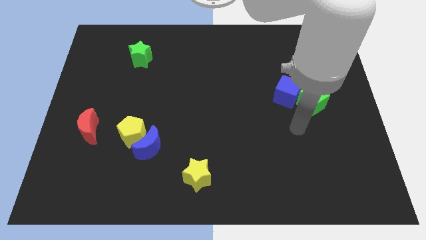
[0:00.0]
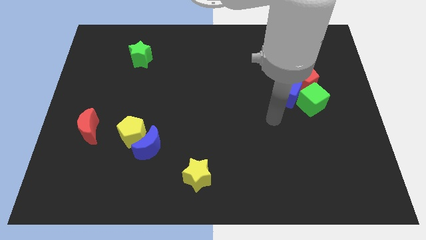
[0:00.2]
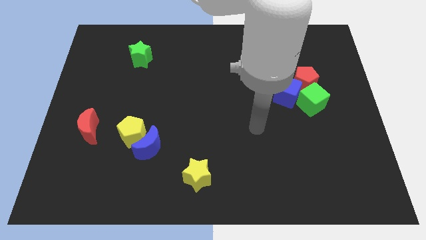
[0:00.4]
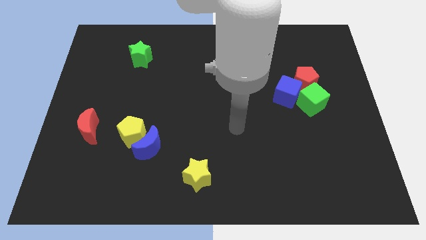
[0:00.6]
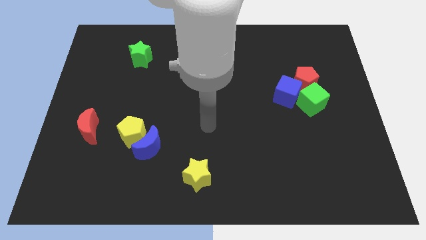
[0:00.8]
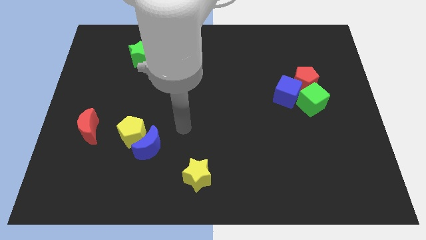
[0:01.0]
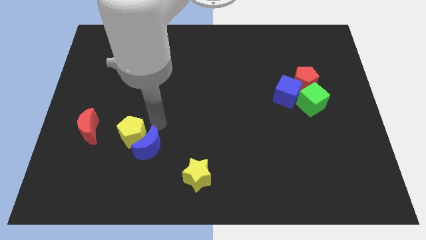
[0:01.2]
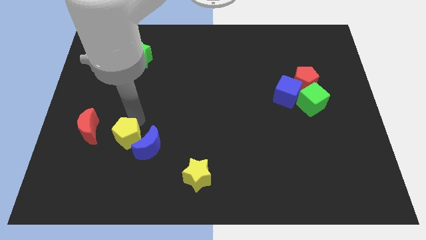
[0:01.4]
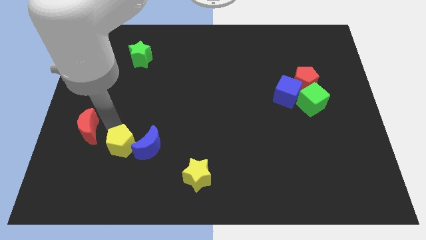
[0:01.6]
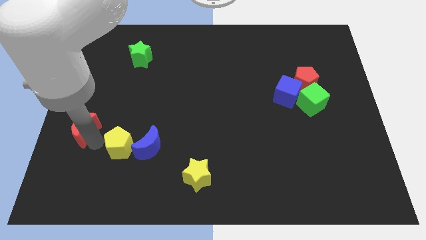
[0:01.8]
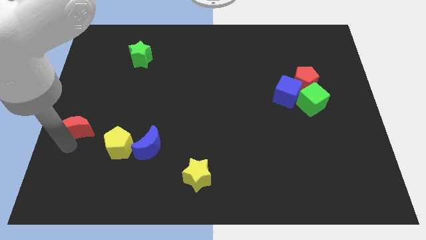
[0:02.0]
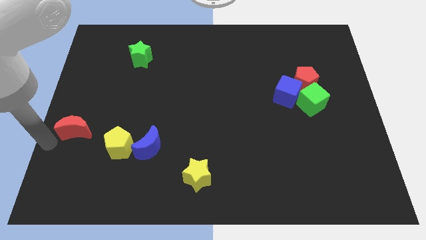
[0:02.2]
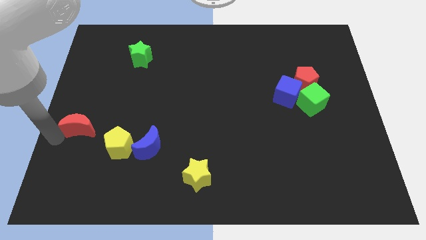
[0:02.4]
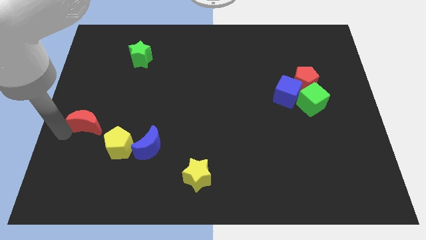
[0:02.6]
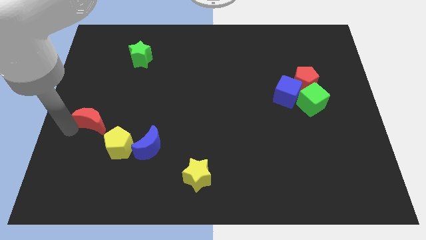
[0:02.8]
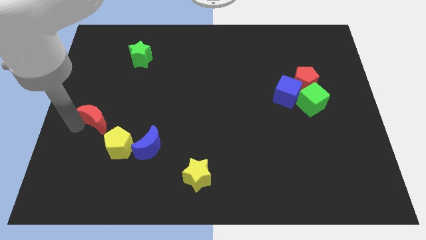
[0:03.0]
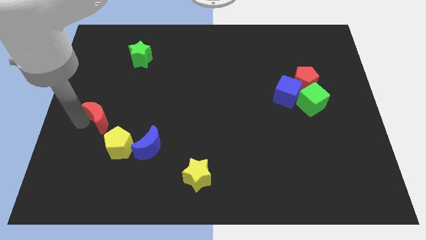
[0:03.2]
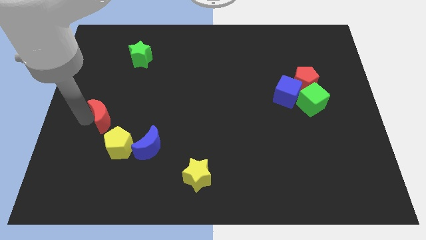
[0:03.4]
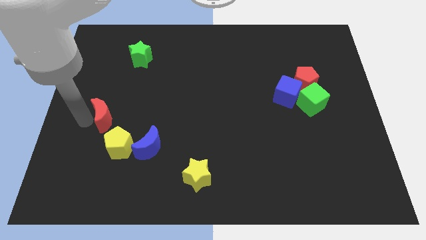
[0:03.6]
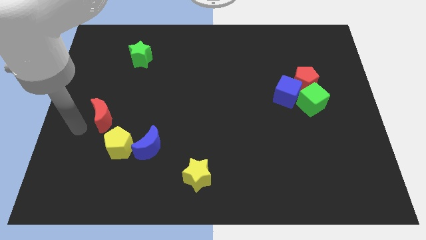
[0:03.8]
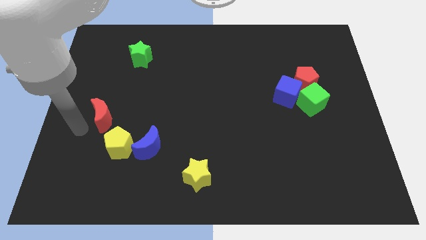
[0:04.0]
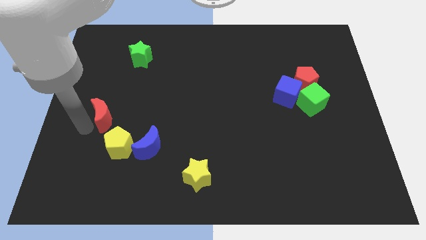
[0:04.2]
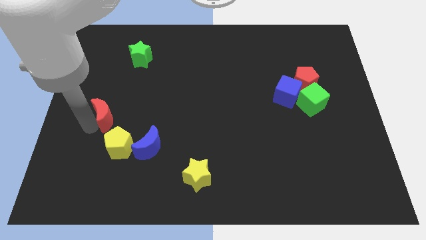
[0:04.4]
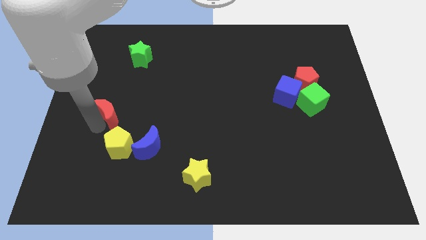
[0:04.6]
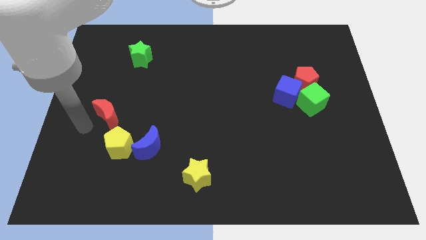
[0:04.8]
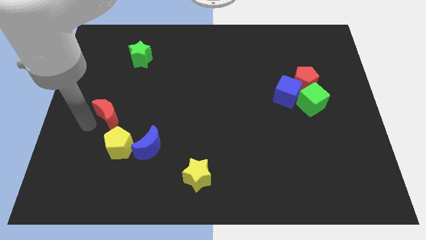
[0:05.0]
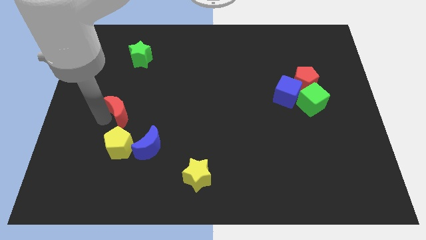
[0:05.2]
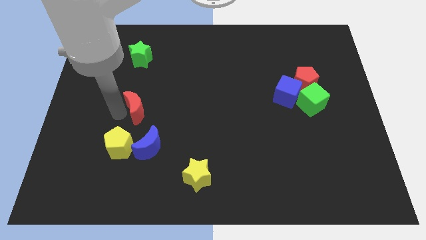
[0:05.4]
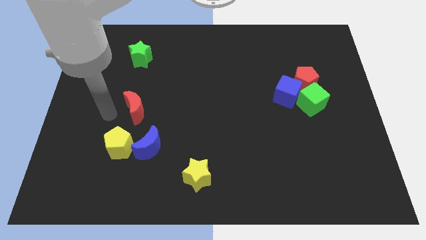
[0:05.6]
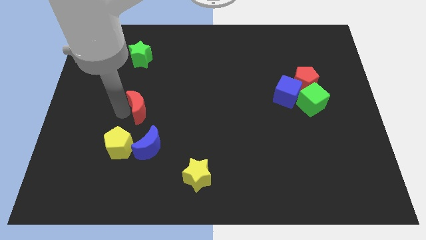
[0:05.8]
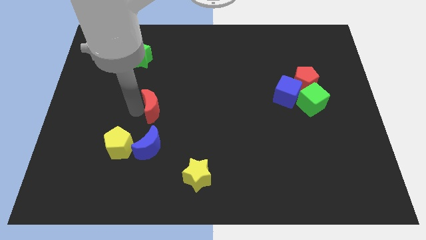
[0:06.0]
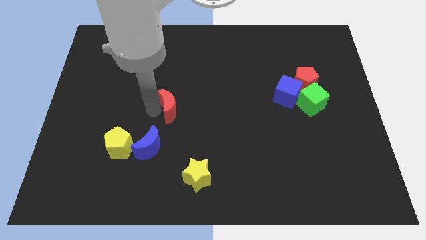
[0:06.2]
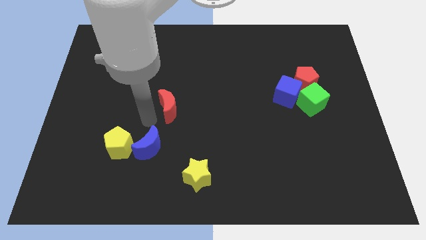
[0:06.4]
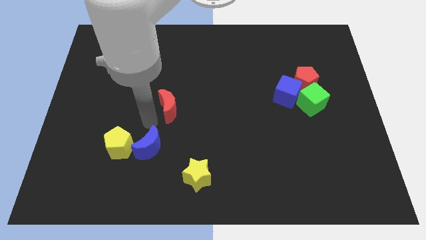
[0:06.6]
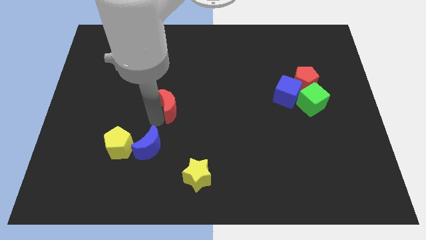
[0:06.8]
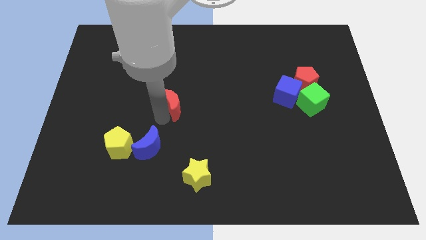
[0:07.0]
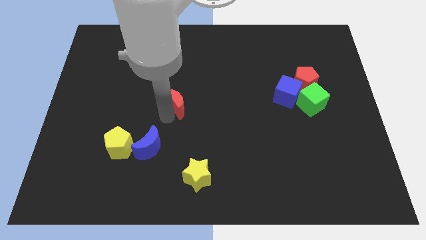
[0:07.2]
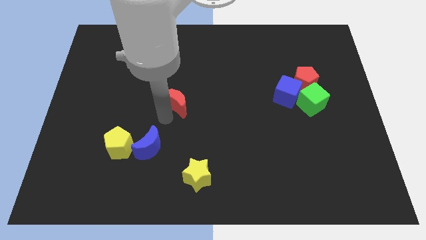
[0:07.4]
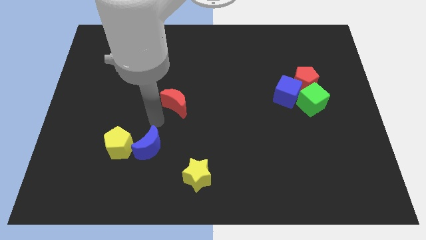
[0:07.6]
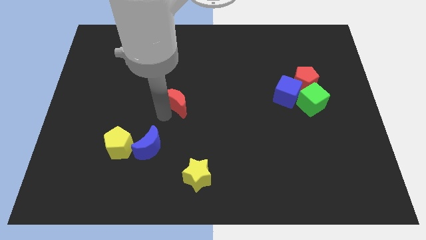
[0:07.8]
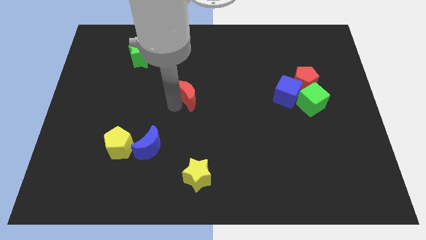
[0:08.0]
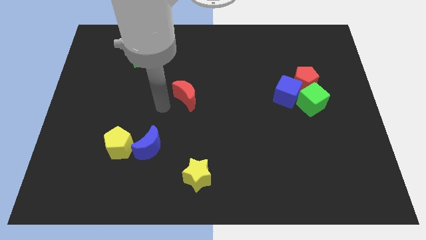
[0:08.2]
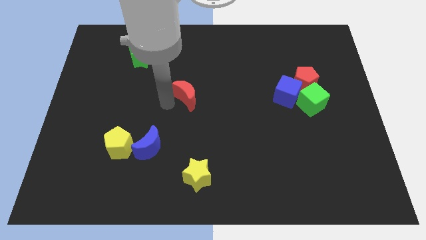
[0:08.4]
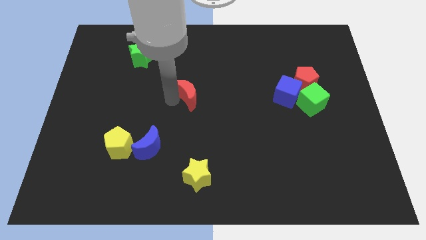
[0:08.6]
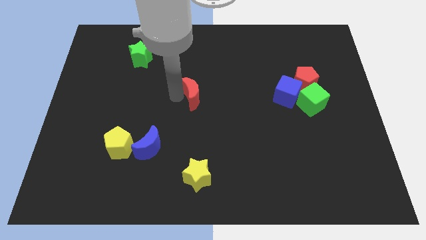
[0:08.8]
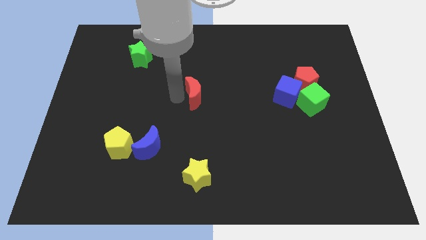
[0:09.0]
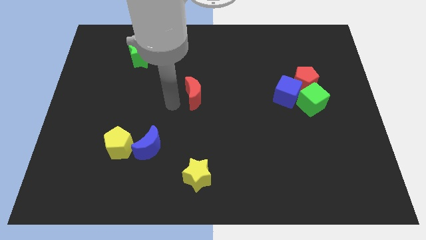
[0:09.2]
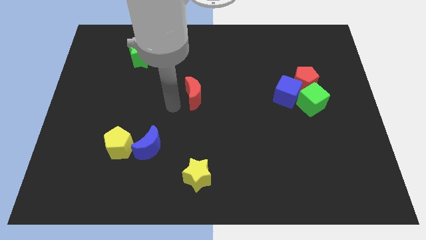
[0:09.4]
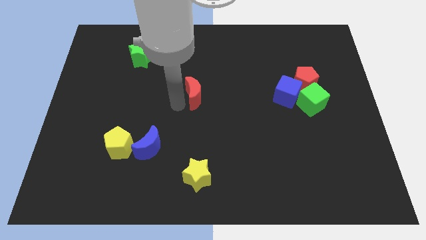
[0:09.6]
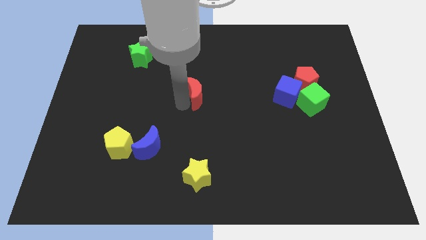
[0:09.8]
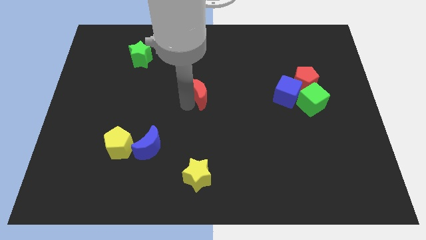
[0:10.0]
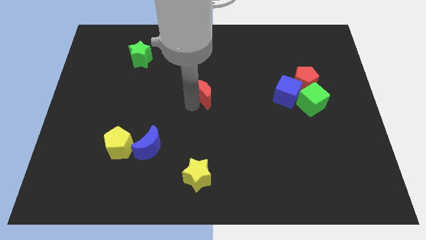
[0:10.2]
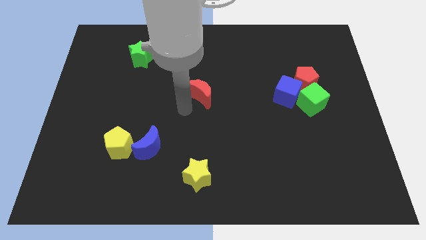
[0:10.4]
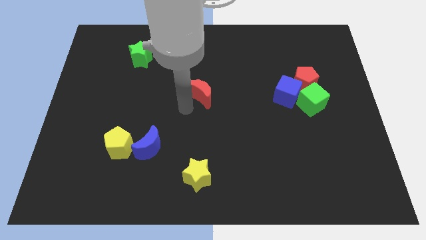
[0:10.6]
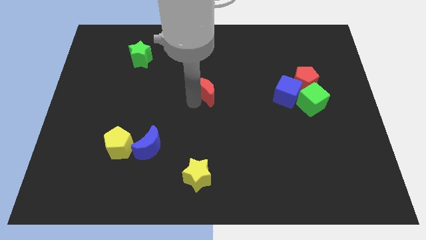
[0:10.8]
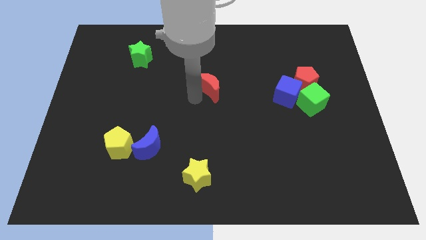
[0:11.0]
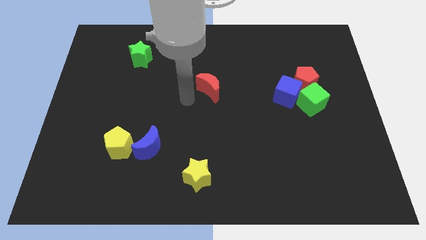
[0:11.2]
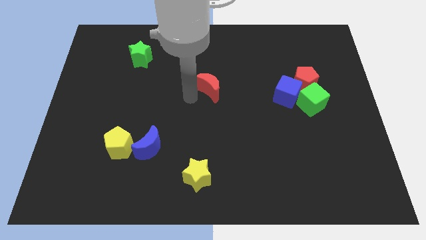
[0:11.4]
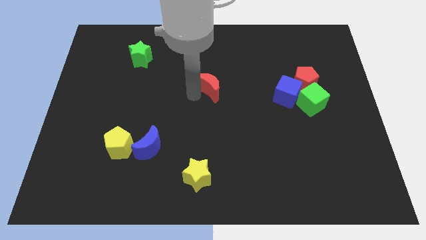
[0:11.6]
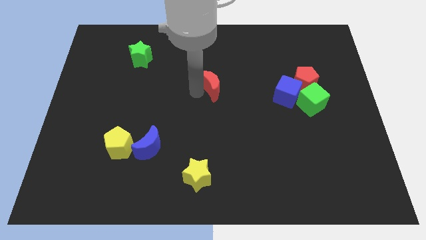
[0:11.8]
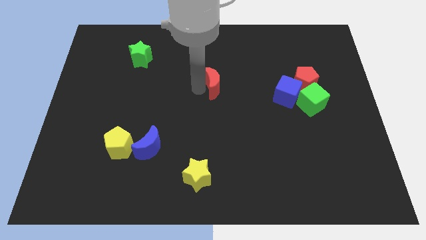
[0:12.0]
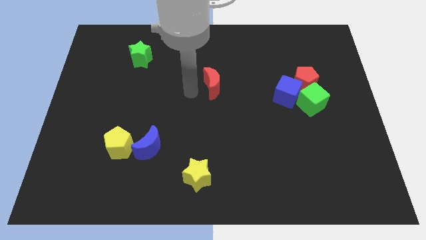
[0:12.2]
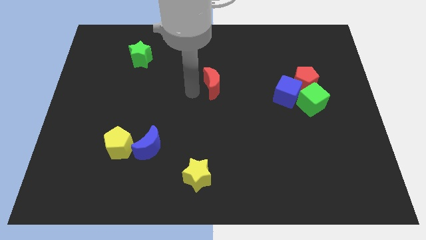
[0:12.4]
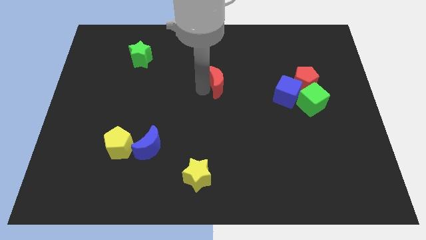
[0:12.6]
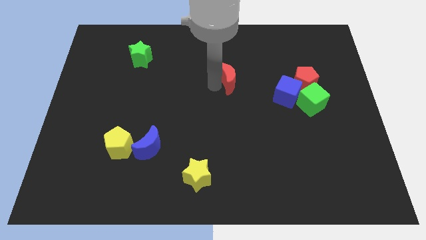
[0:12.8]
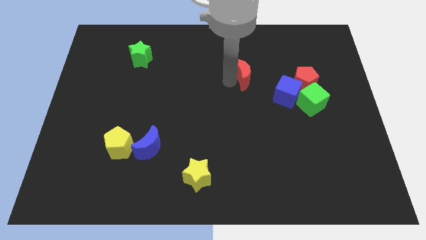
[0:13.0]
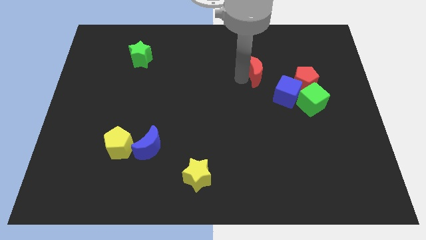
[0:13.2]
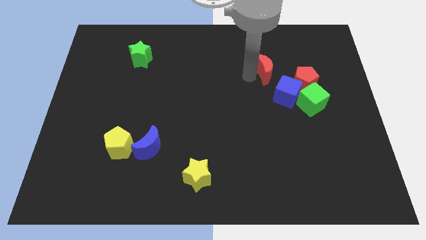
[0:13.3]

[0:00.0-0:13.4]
put the red moon to the top of the blue cube
